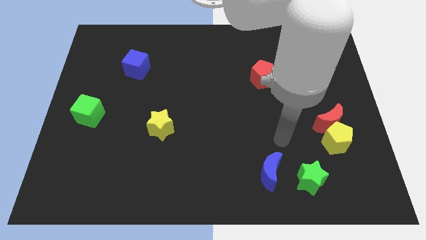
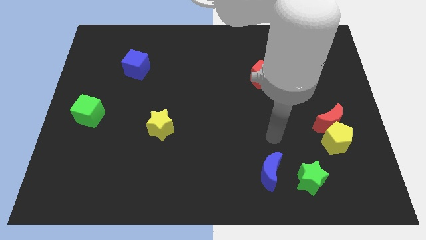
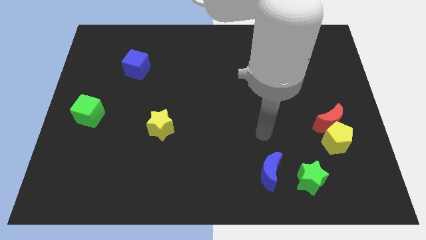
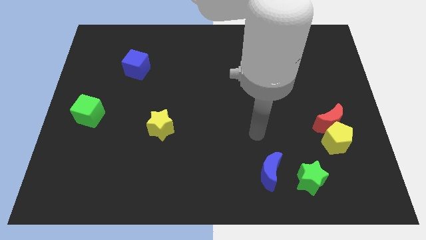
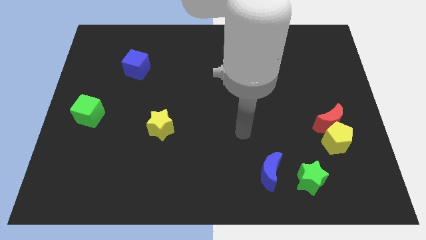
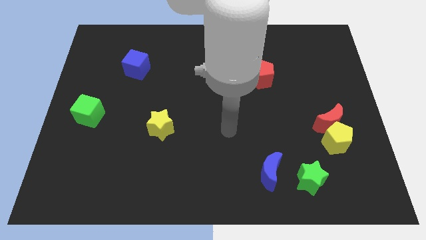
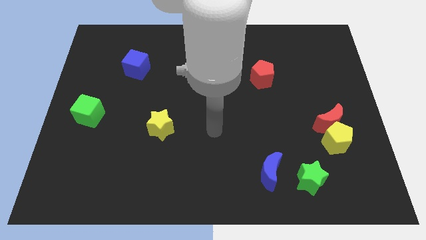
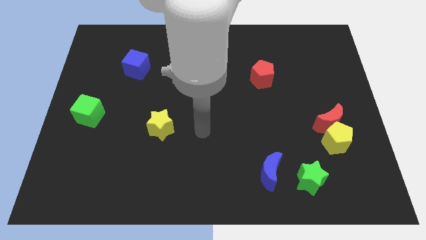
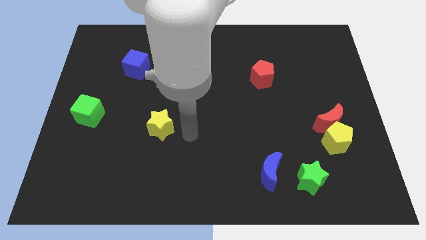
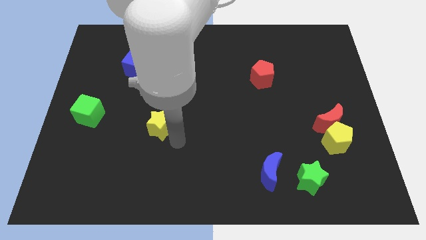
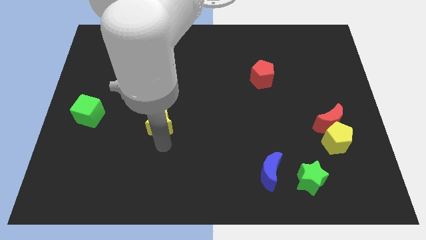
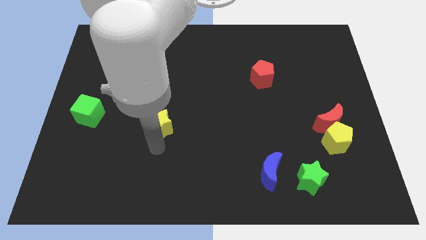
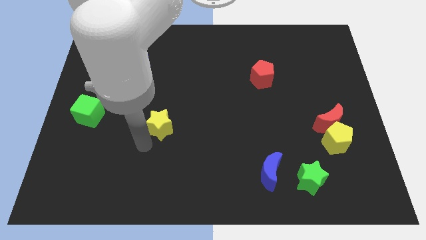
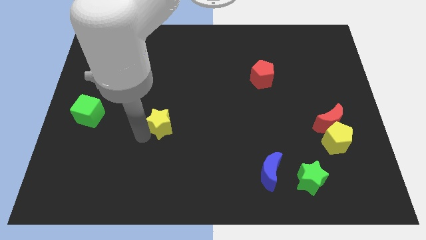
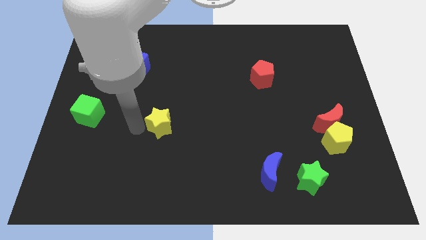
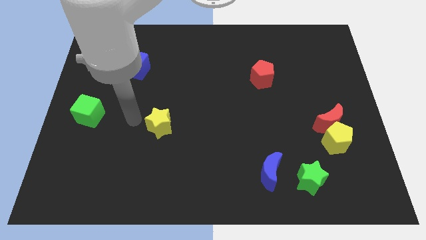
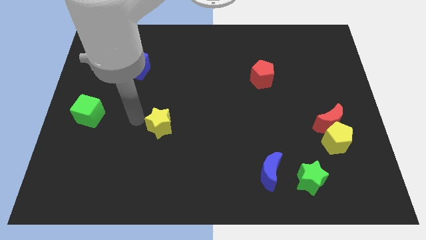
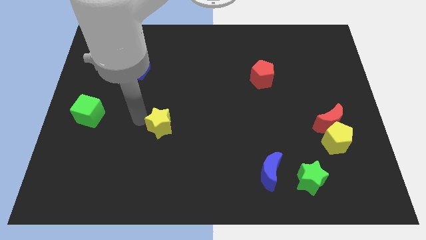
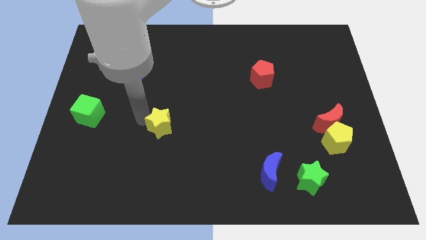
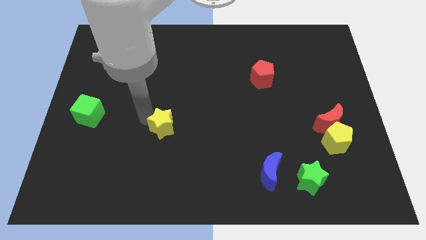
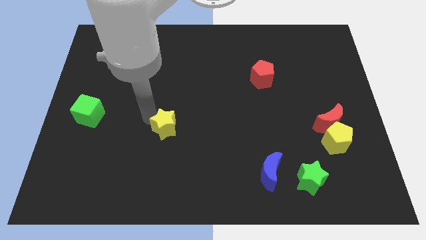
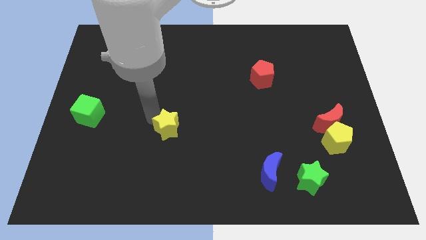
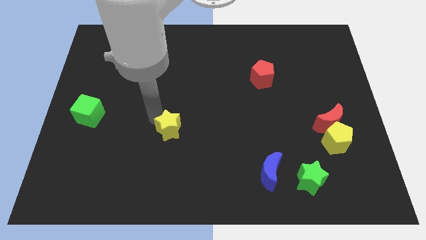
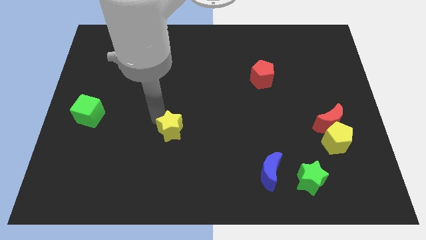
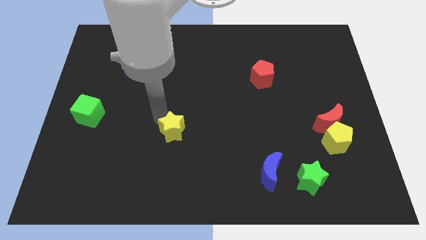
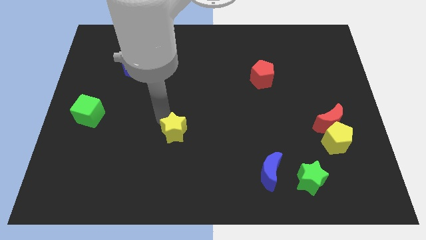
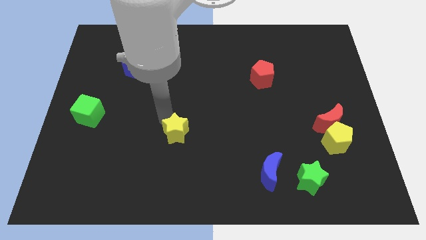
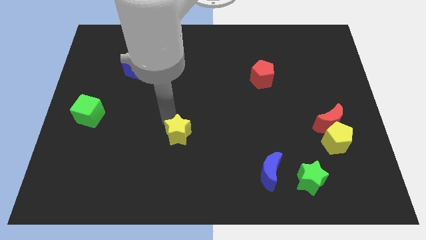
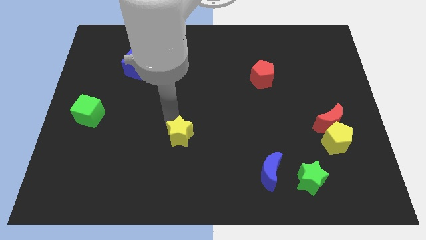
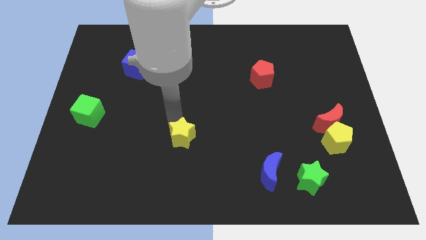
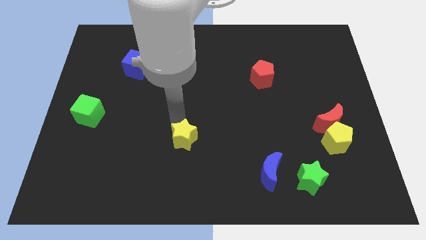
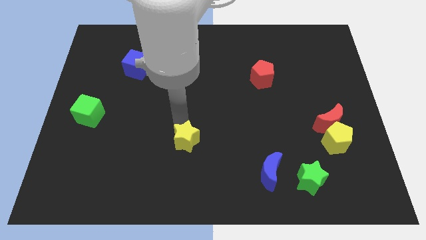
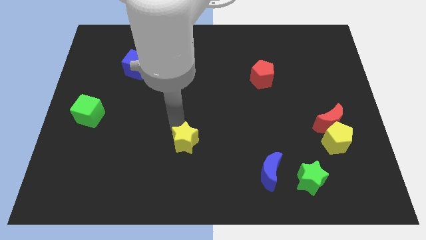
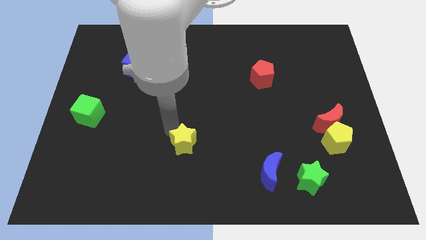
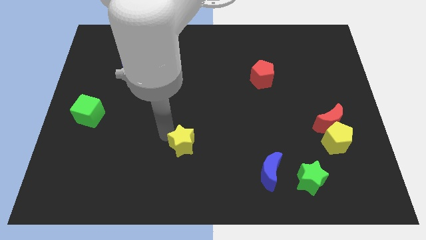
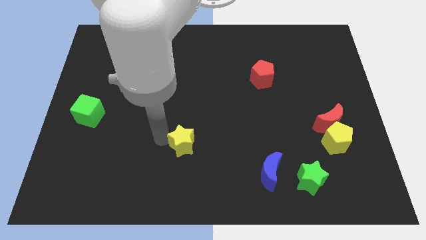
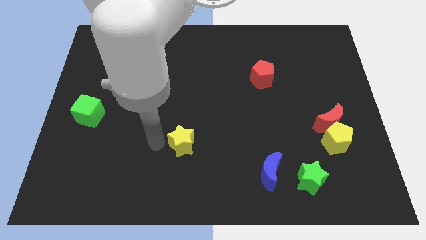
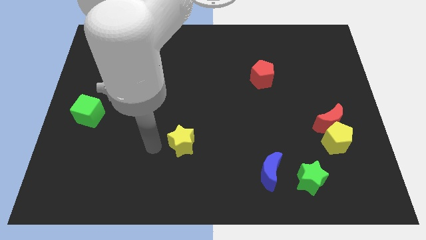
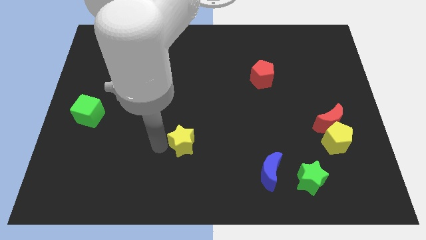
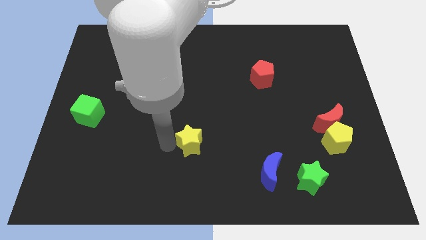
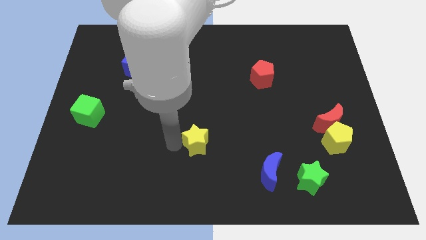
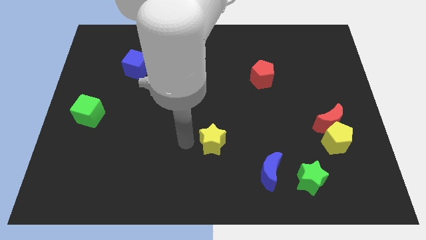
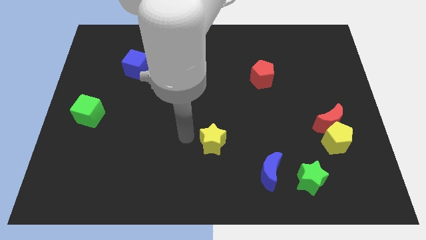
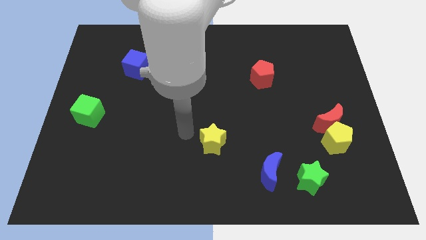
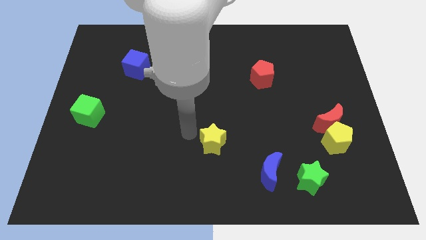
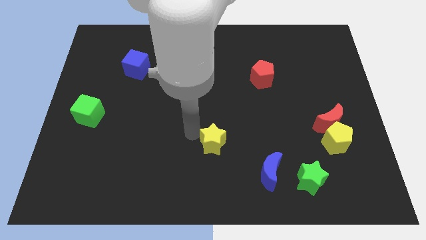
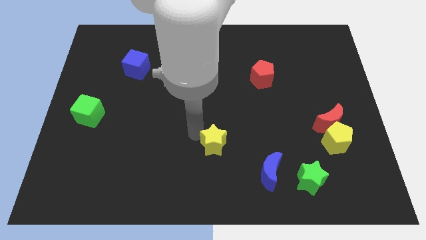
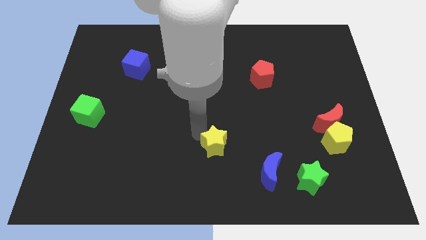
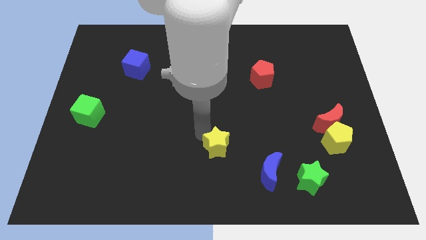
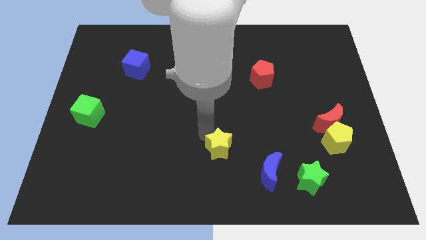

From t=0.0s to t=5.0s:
put the yellow star to the top left side of the blue moon

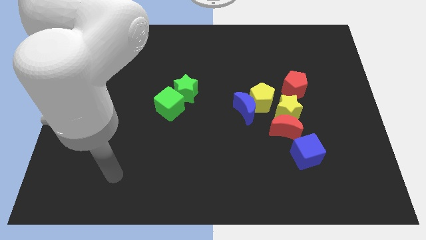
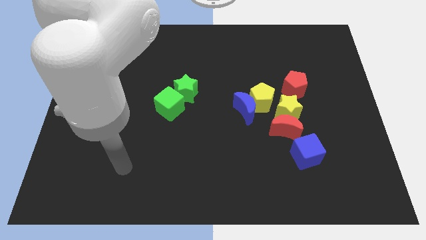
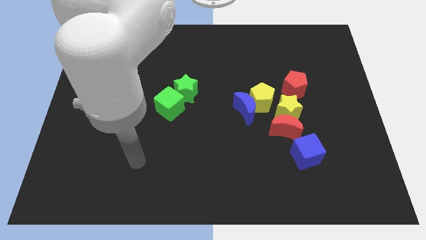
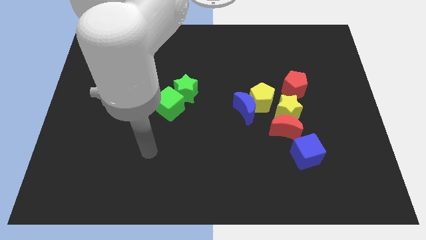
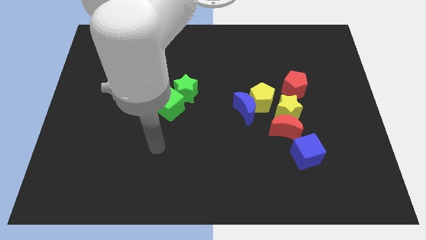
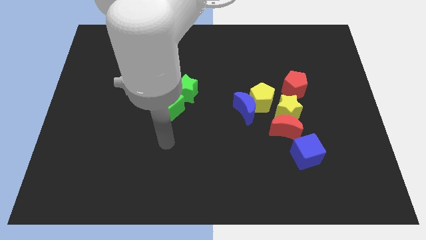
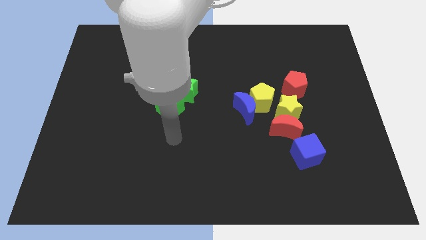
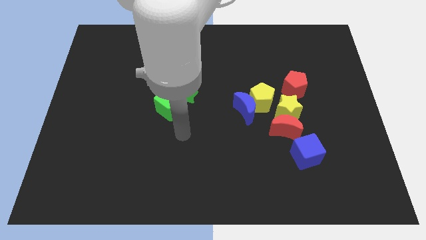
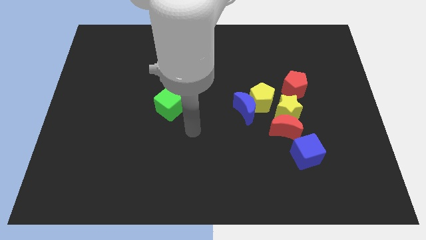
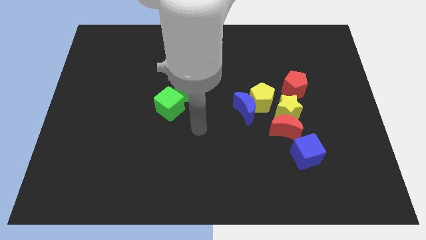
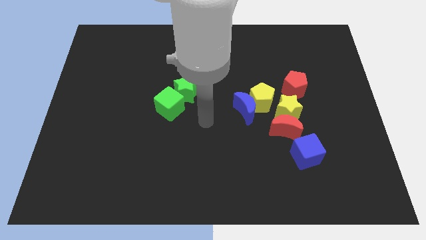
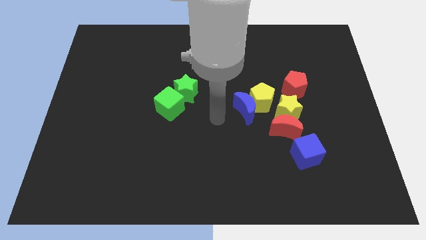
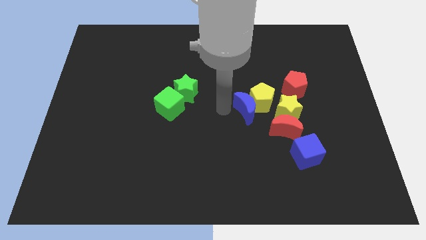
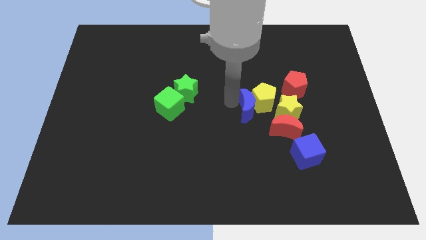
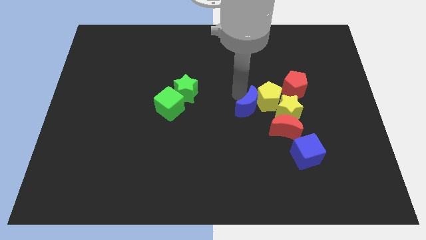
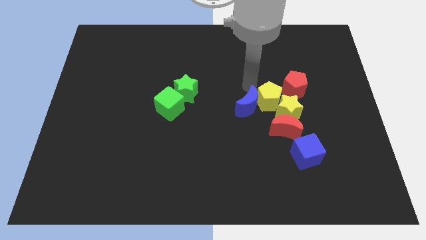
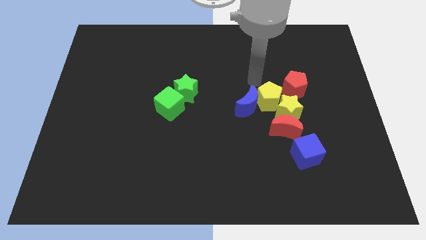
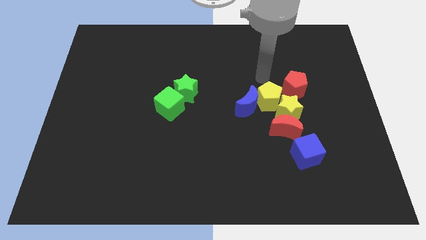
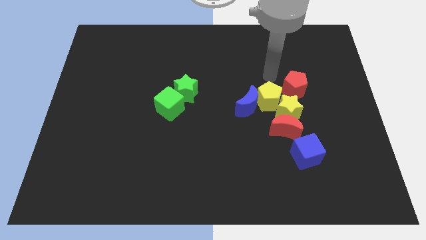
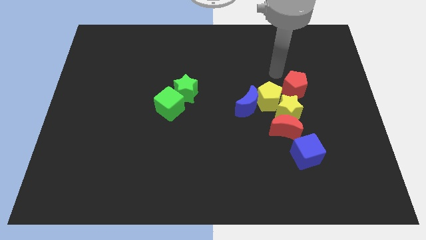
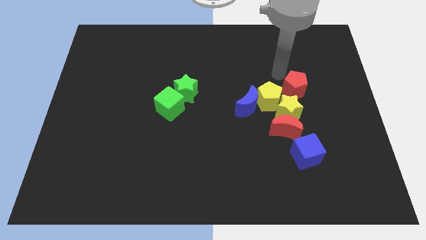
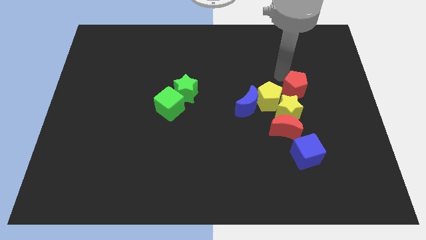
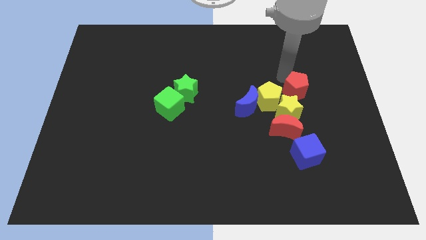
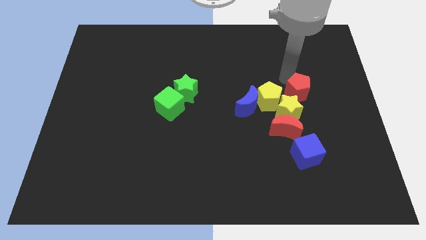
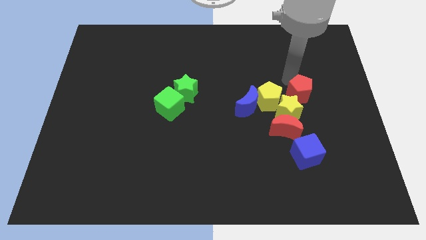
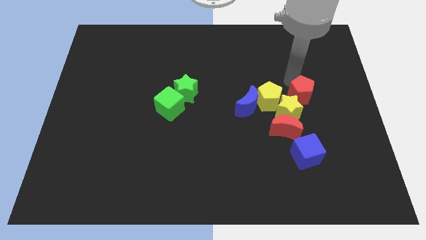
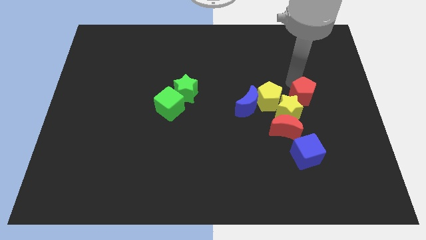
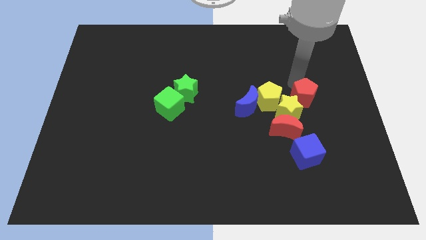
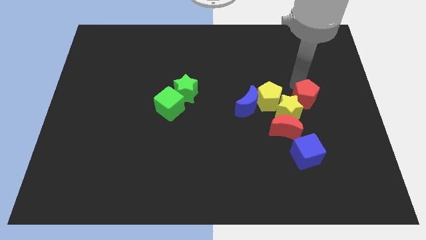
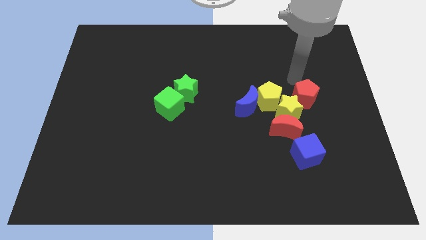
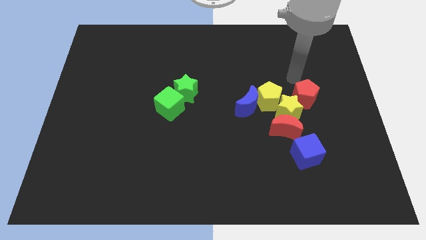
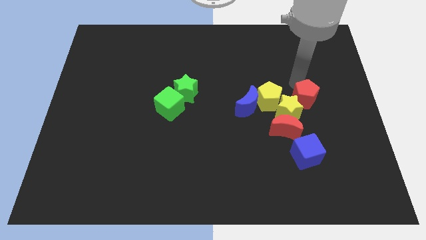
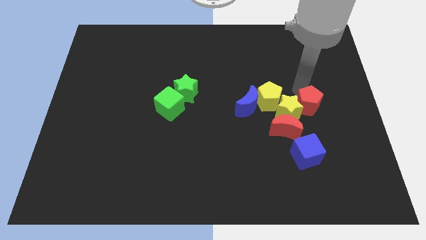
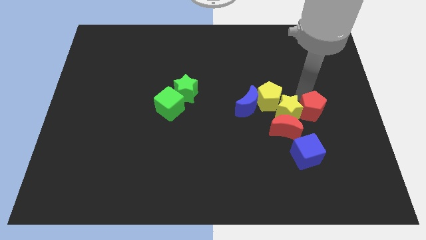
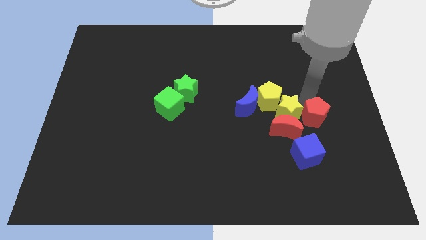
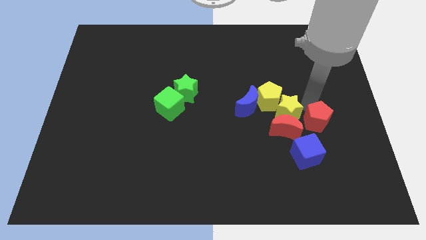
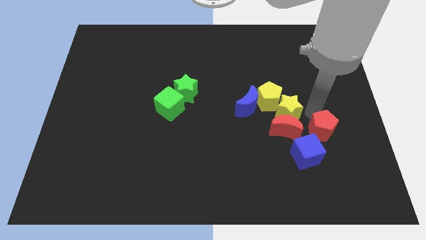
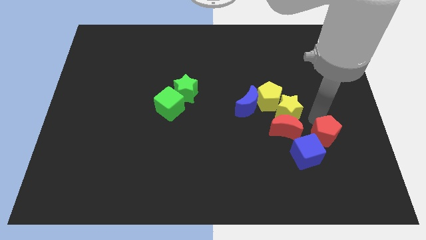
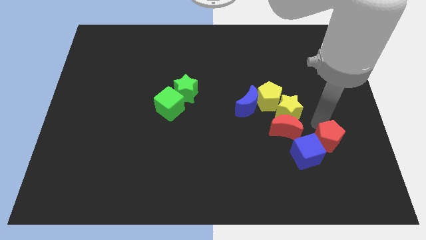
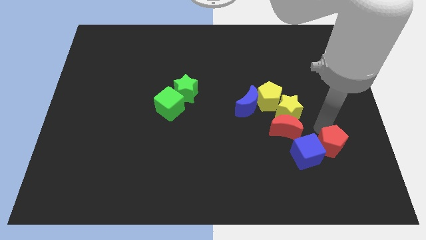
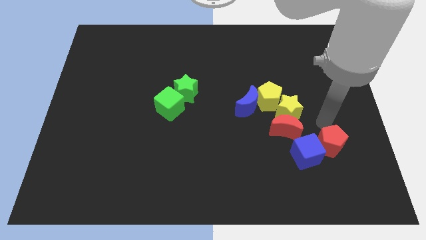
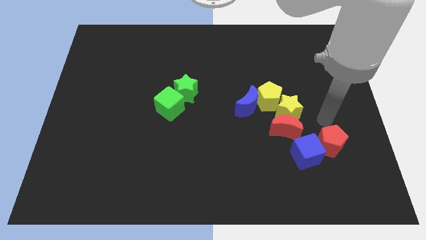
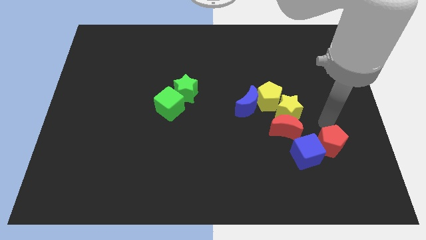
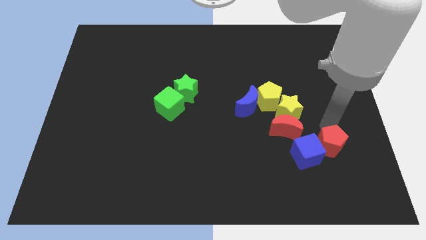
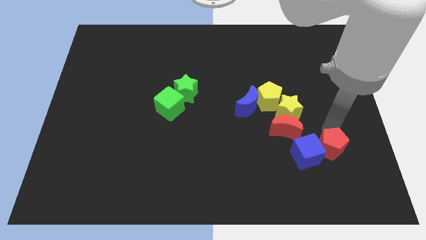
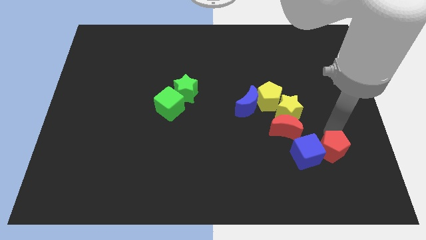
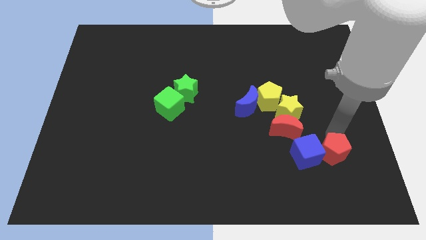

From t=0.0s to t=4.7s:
put the red pentagon diagonally down and to the right of the blue cube
